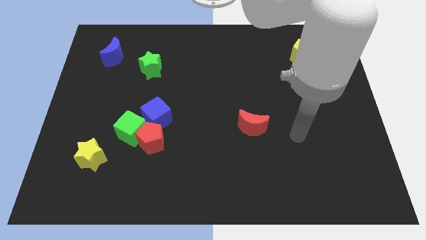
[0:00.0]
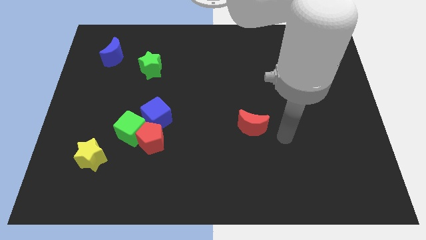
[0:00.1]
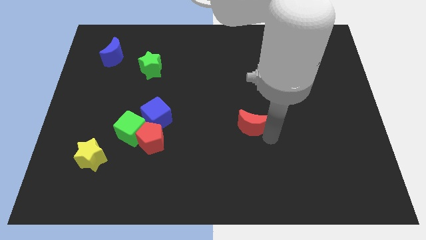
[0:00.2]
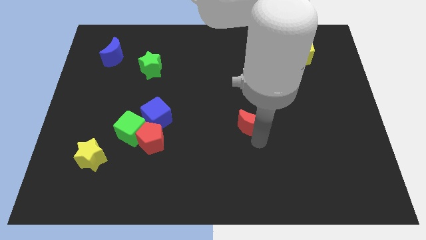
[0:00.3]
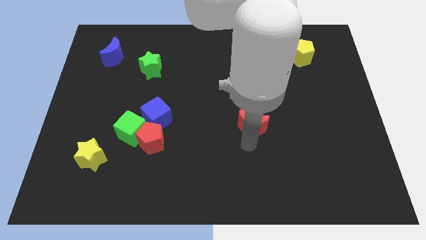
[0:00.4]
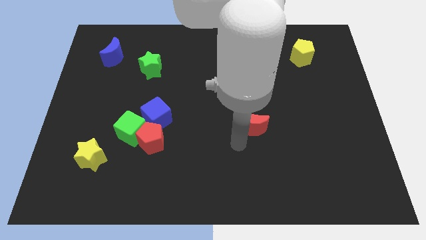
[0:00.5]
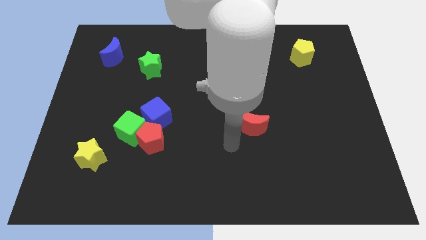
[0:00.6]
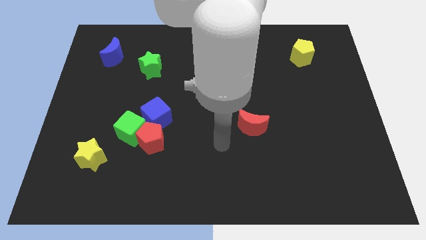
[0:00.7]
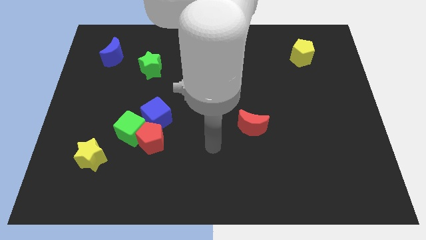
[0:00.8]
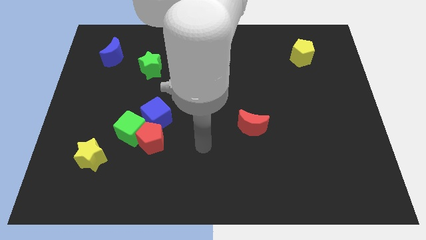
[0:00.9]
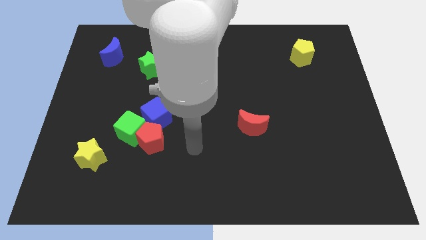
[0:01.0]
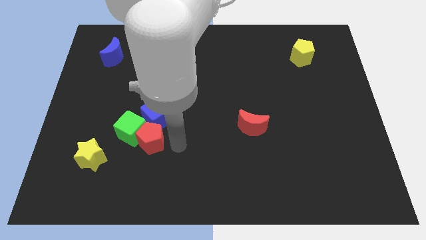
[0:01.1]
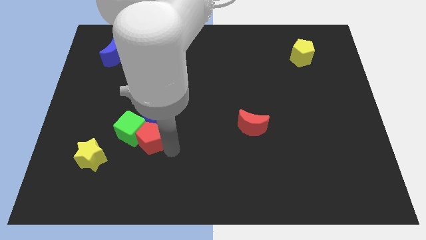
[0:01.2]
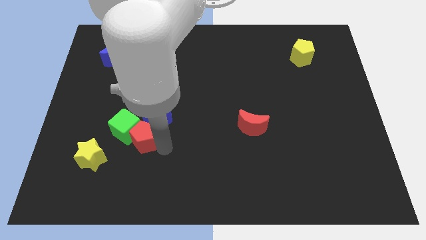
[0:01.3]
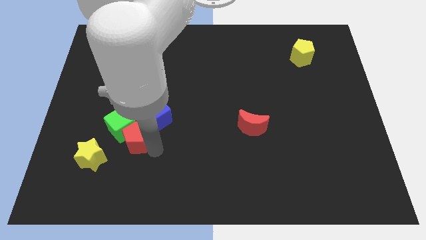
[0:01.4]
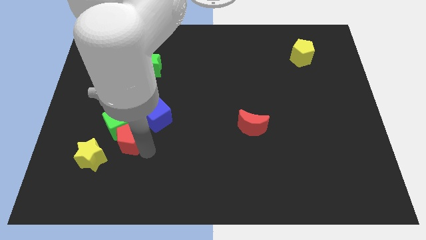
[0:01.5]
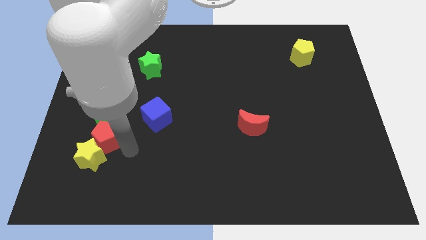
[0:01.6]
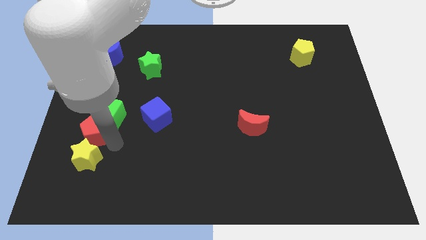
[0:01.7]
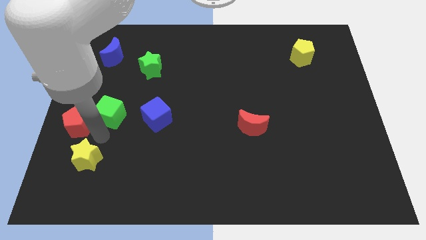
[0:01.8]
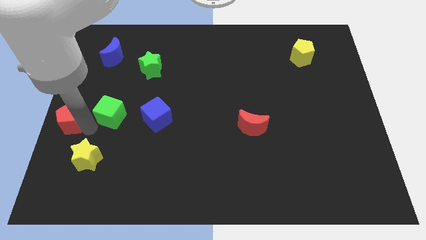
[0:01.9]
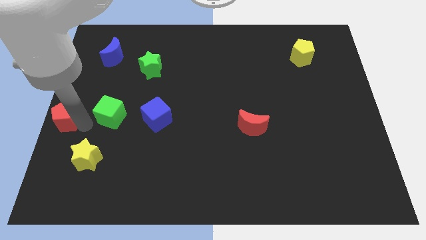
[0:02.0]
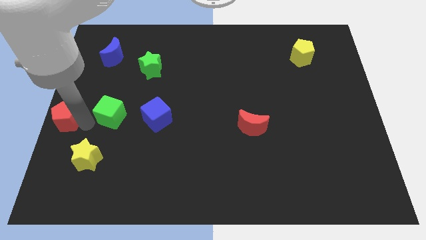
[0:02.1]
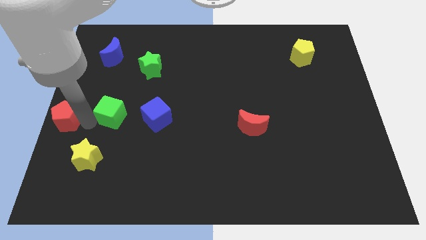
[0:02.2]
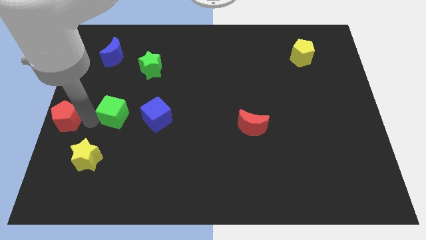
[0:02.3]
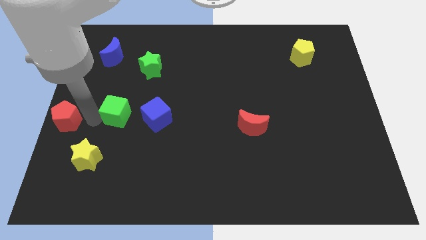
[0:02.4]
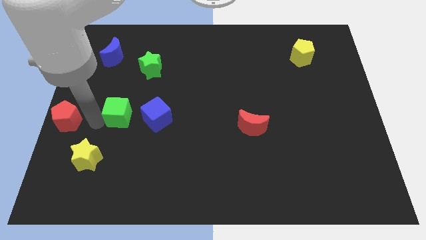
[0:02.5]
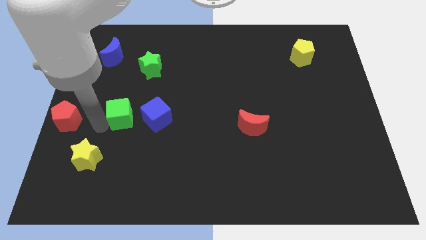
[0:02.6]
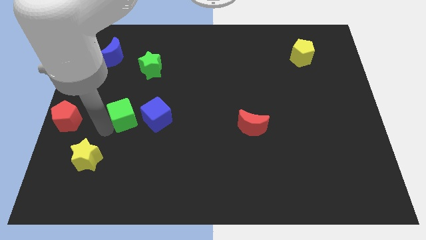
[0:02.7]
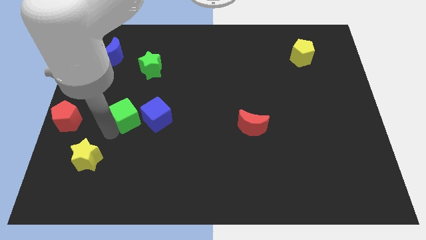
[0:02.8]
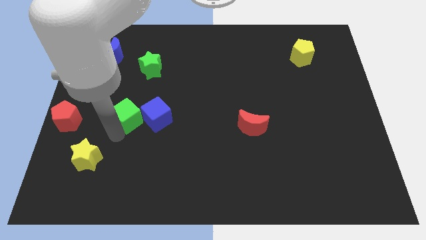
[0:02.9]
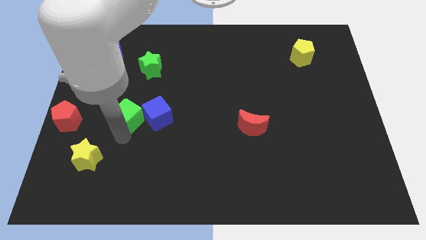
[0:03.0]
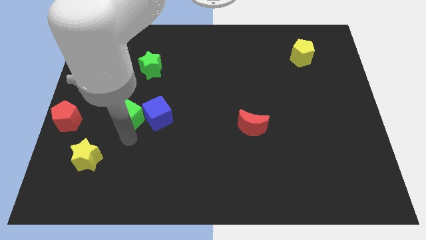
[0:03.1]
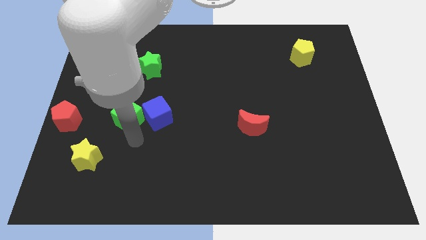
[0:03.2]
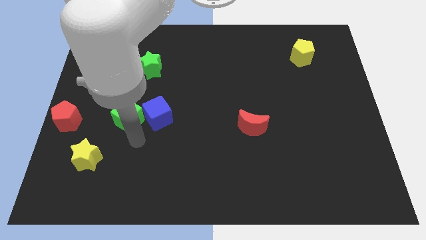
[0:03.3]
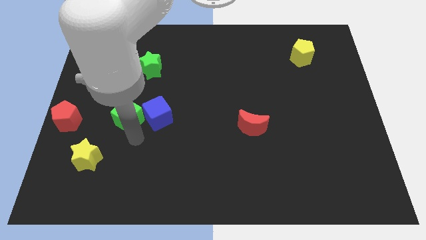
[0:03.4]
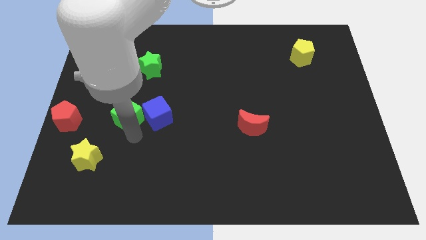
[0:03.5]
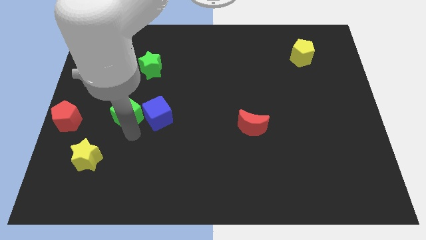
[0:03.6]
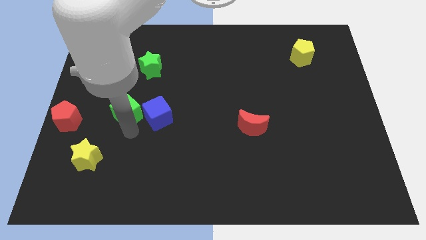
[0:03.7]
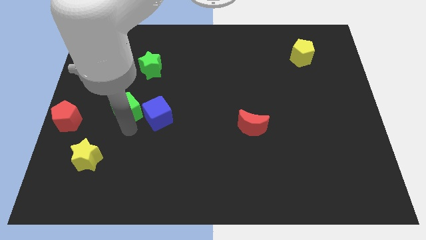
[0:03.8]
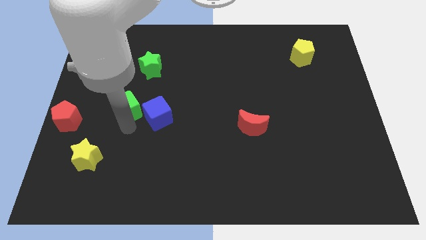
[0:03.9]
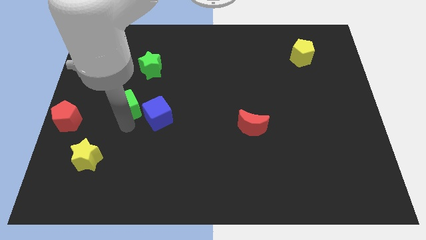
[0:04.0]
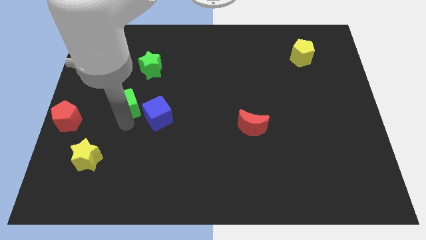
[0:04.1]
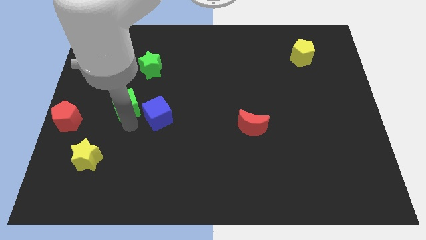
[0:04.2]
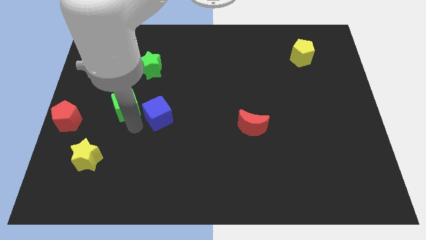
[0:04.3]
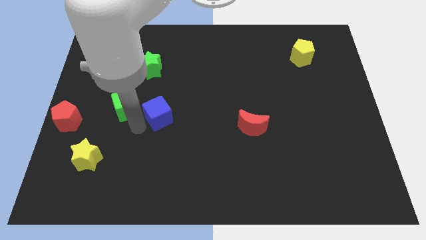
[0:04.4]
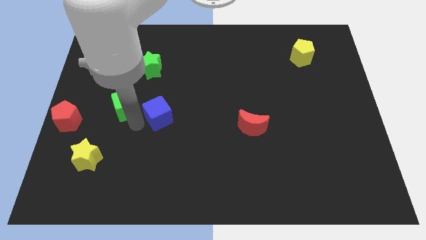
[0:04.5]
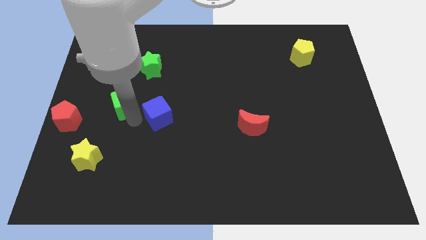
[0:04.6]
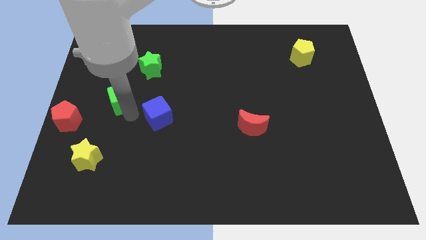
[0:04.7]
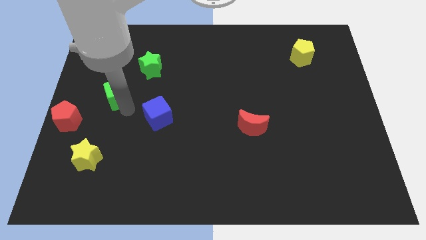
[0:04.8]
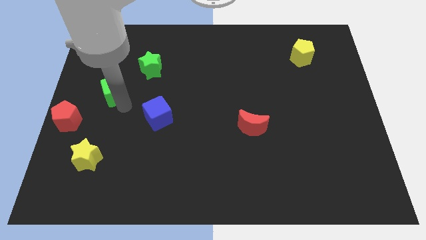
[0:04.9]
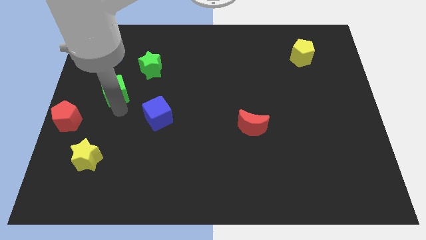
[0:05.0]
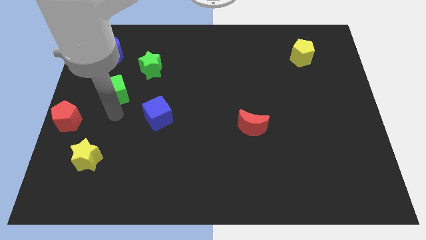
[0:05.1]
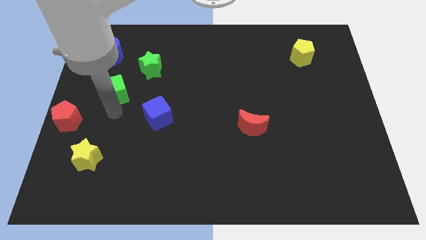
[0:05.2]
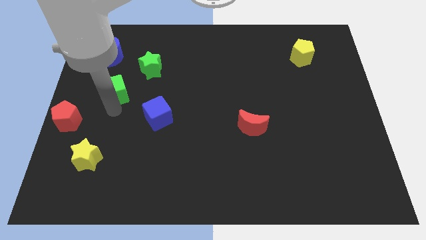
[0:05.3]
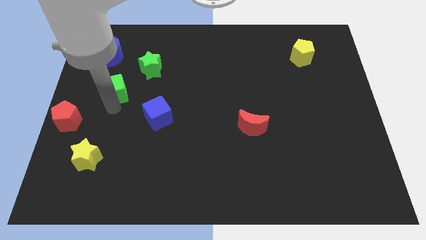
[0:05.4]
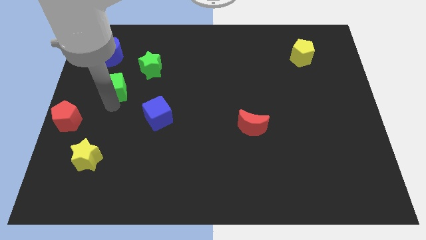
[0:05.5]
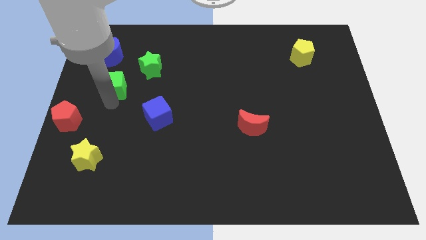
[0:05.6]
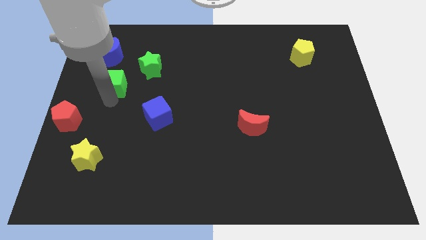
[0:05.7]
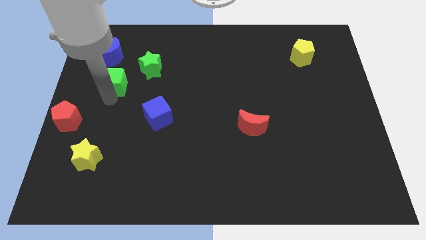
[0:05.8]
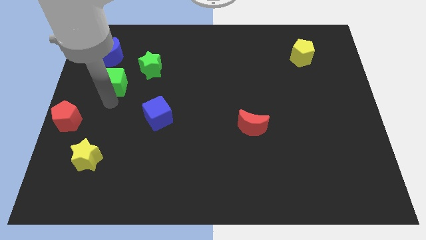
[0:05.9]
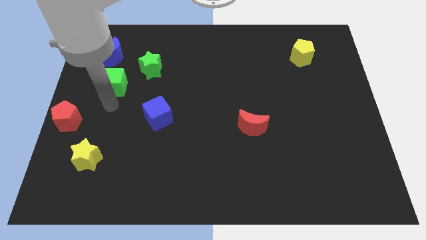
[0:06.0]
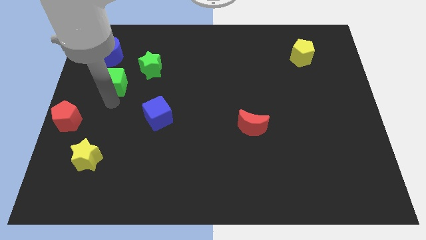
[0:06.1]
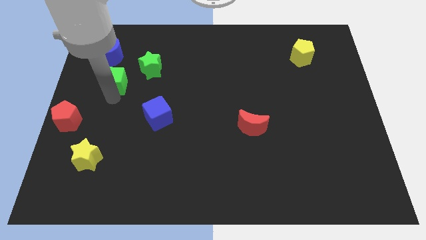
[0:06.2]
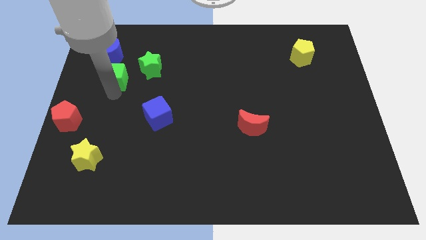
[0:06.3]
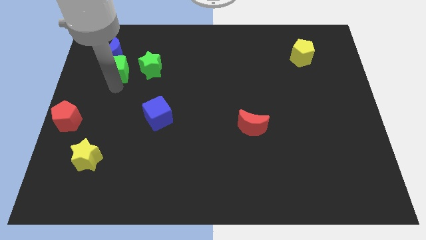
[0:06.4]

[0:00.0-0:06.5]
push the green cube towards the blue moon

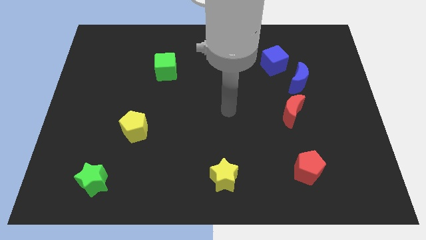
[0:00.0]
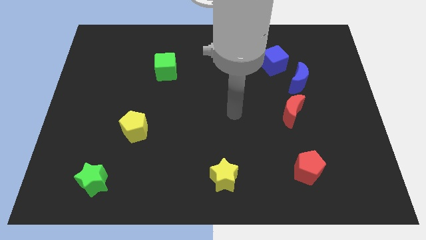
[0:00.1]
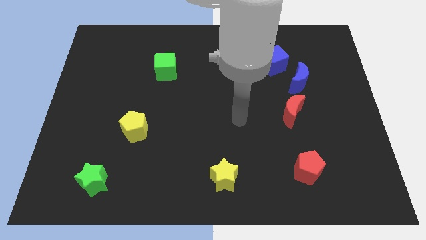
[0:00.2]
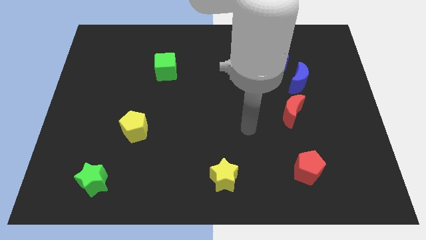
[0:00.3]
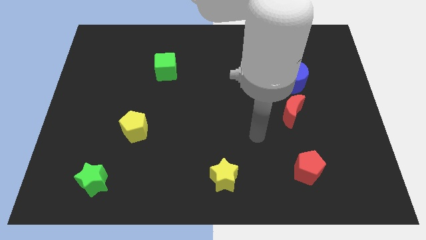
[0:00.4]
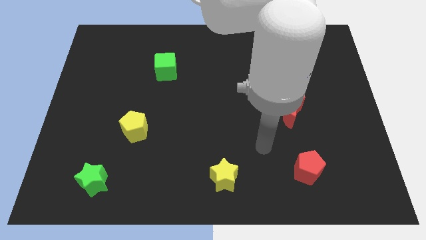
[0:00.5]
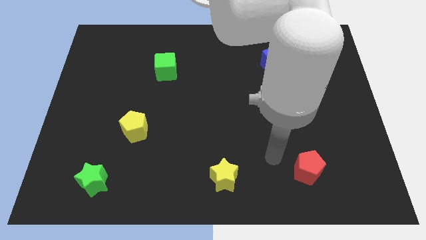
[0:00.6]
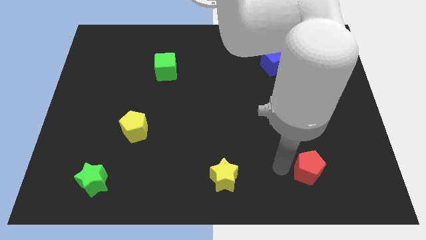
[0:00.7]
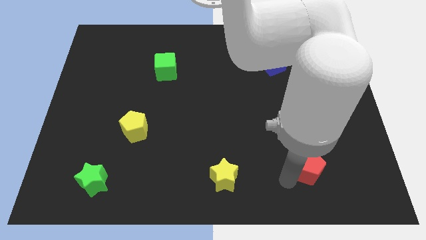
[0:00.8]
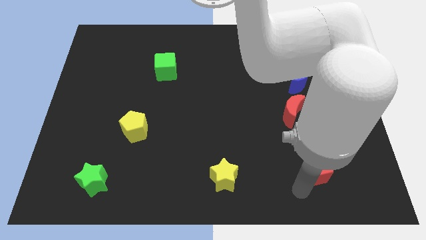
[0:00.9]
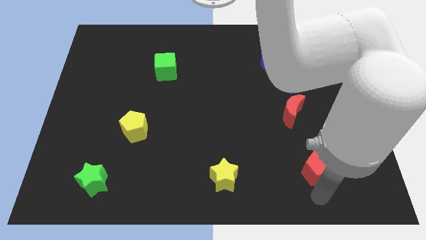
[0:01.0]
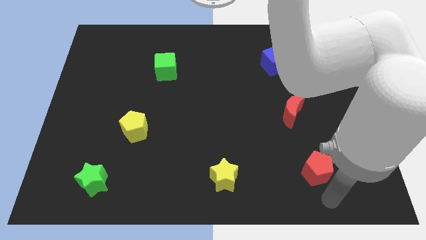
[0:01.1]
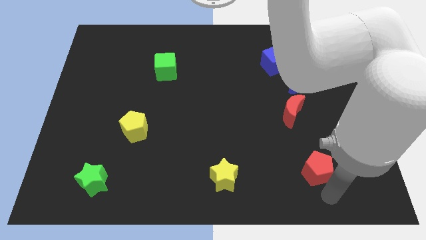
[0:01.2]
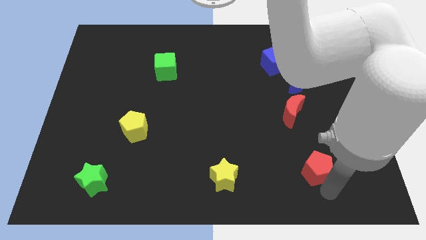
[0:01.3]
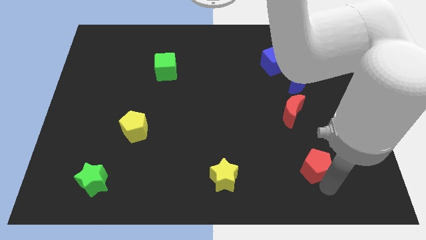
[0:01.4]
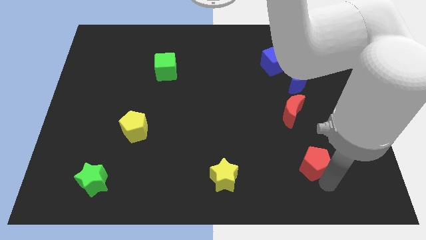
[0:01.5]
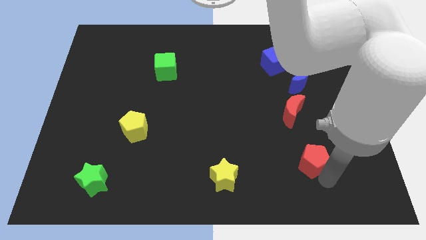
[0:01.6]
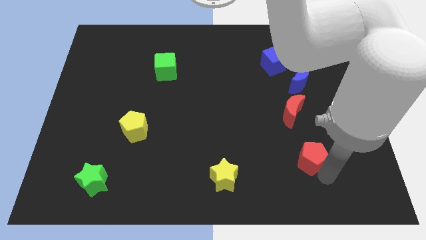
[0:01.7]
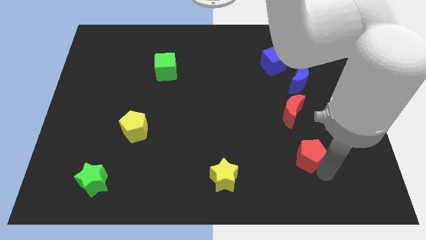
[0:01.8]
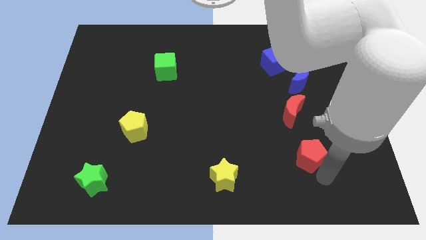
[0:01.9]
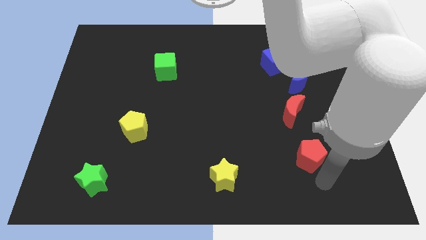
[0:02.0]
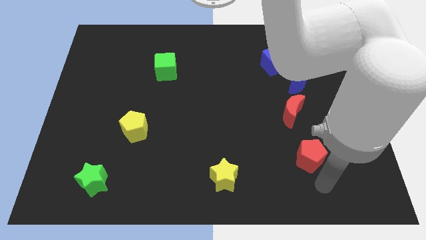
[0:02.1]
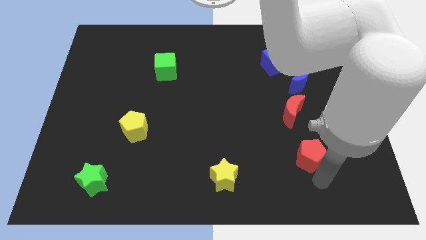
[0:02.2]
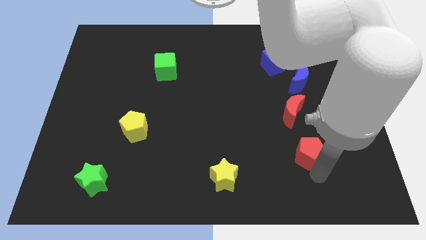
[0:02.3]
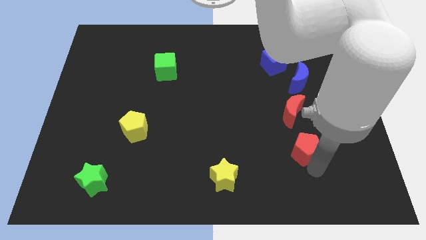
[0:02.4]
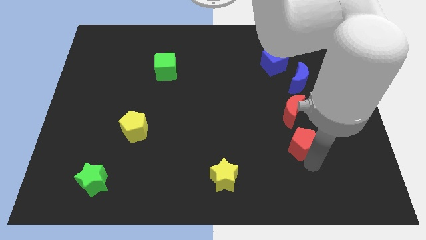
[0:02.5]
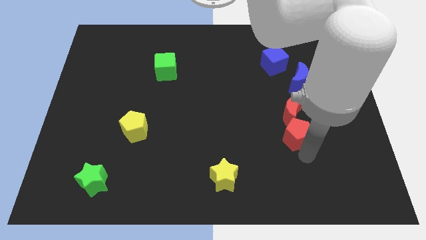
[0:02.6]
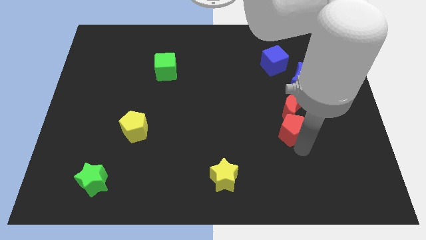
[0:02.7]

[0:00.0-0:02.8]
put the red pentagon close to the red moon
